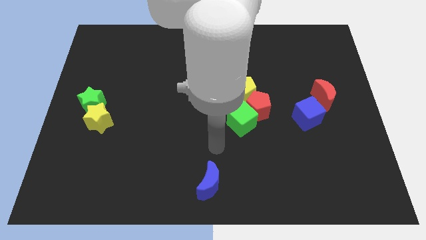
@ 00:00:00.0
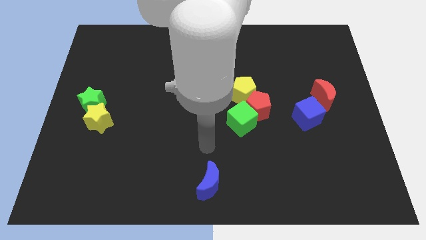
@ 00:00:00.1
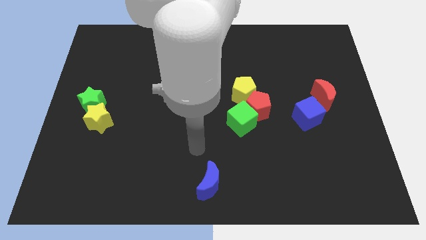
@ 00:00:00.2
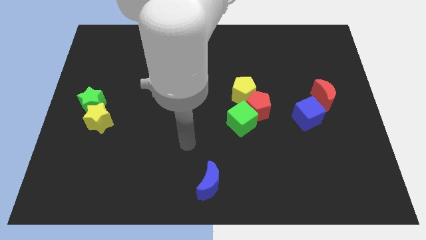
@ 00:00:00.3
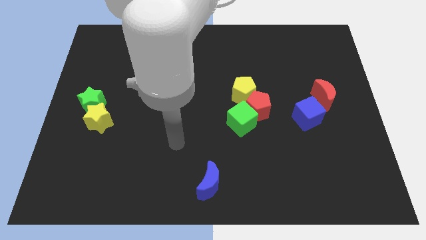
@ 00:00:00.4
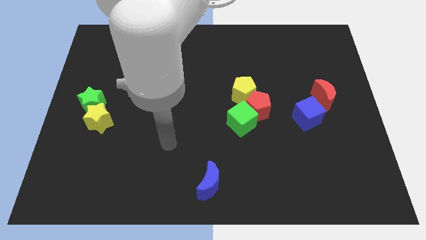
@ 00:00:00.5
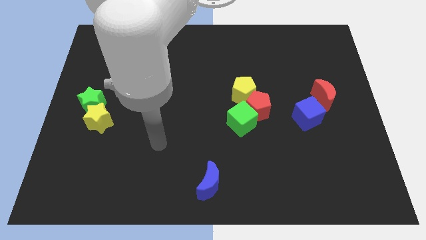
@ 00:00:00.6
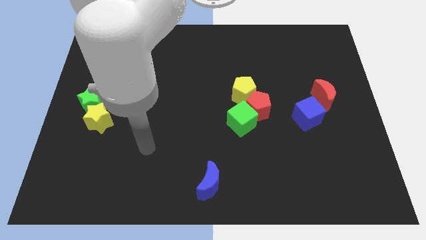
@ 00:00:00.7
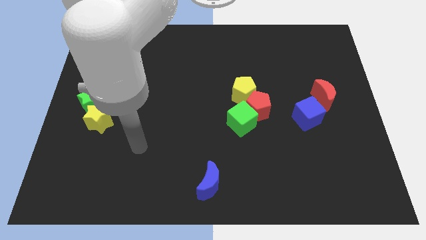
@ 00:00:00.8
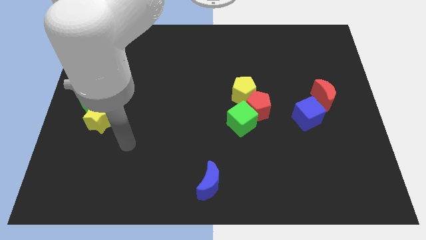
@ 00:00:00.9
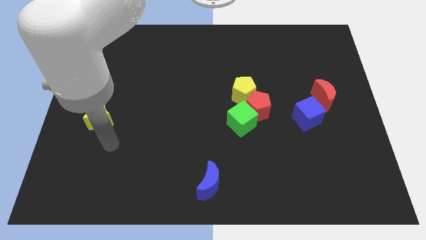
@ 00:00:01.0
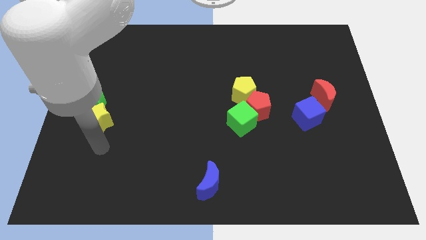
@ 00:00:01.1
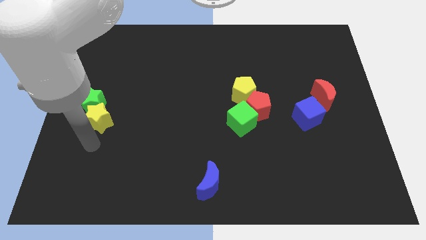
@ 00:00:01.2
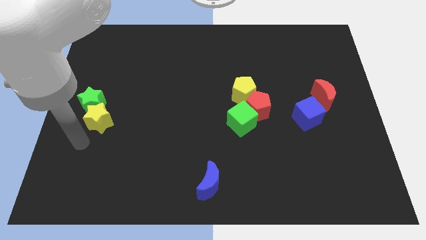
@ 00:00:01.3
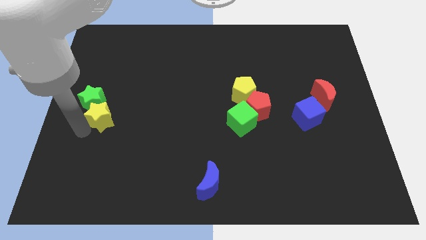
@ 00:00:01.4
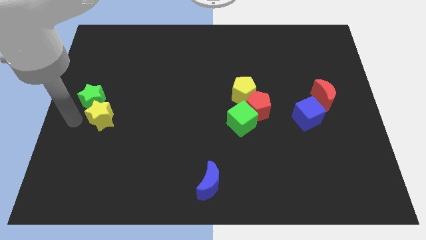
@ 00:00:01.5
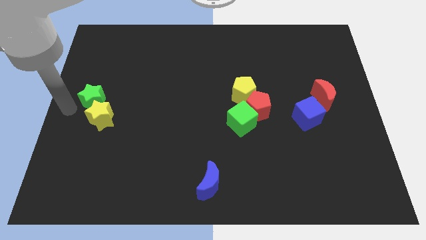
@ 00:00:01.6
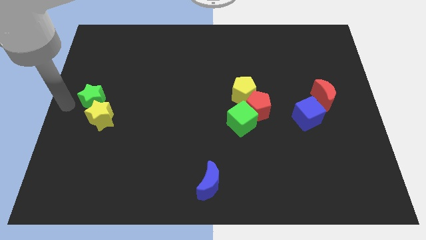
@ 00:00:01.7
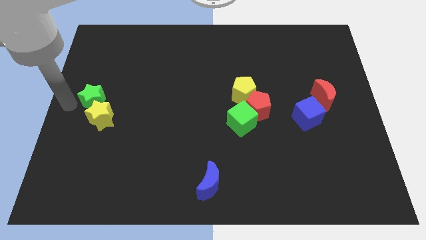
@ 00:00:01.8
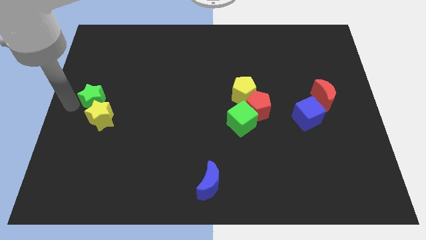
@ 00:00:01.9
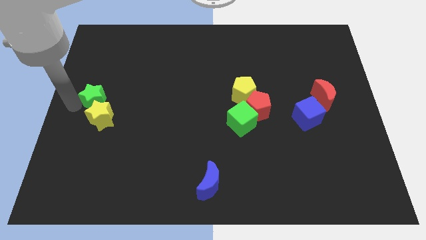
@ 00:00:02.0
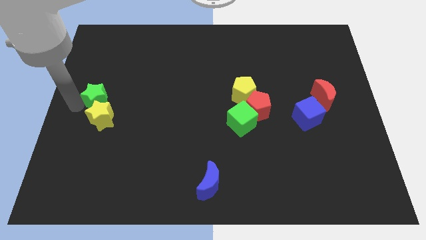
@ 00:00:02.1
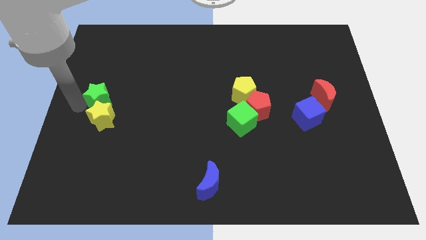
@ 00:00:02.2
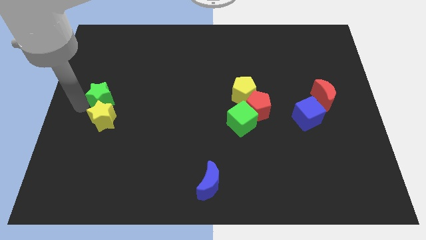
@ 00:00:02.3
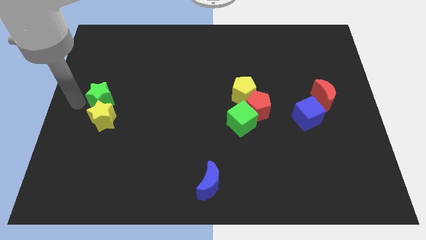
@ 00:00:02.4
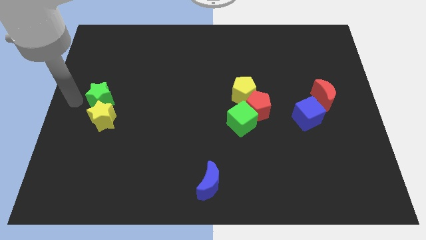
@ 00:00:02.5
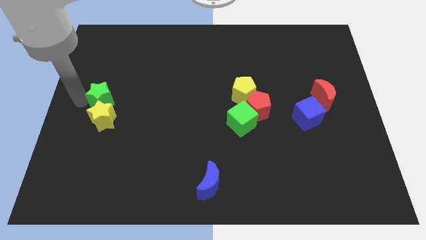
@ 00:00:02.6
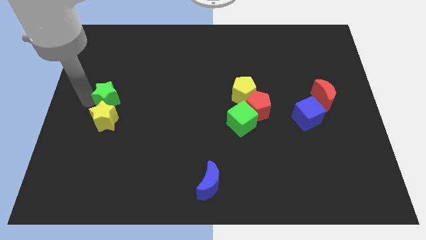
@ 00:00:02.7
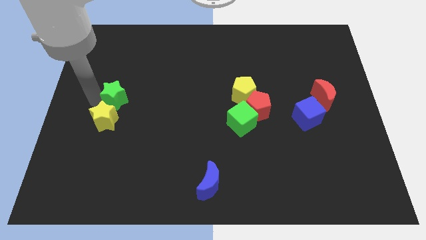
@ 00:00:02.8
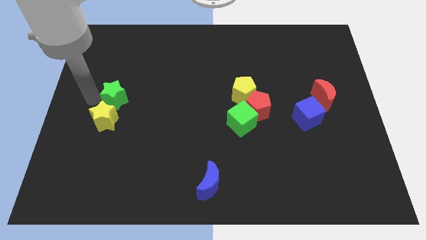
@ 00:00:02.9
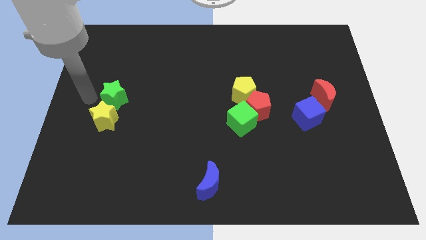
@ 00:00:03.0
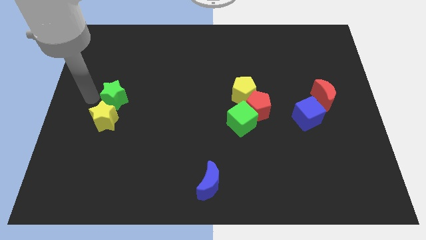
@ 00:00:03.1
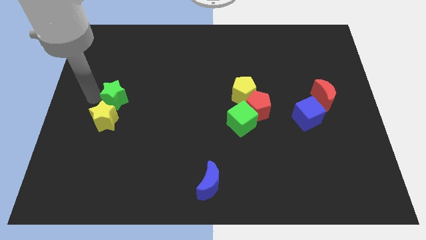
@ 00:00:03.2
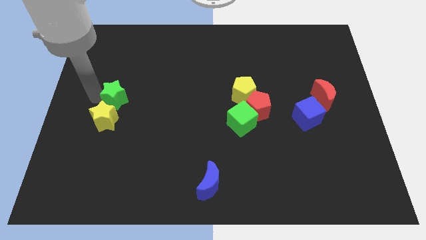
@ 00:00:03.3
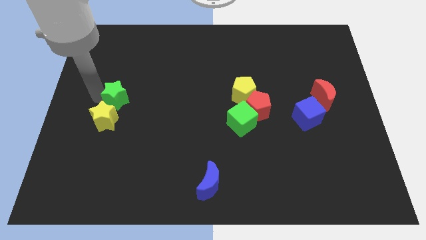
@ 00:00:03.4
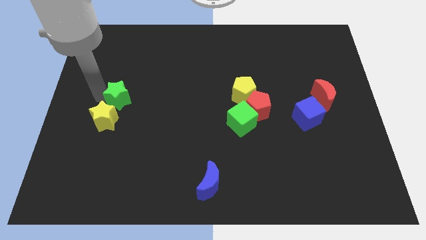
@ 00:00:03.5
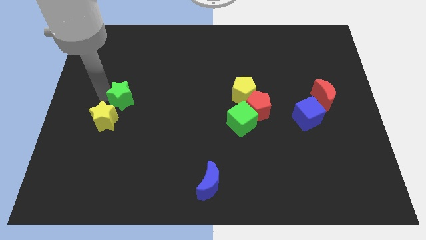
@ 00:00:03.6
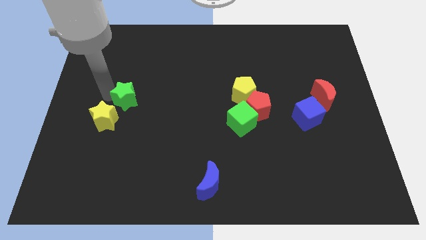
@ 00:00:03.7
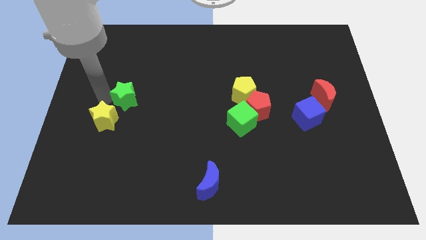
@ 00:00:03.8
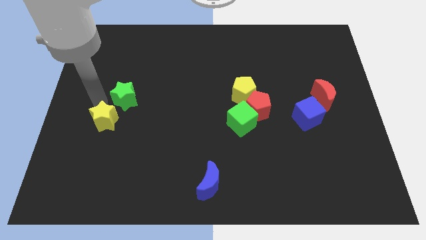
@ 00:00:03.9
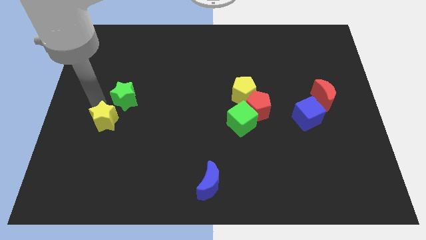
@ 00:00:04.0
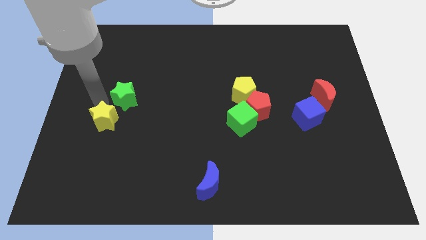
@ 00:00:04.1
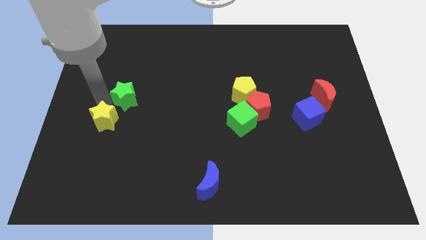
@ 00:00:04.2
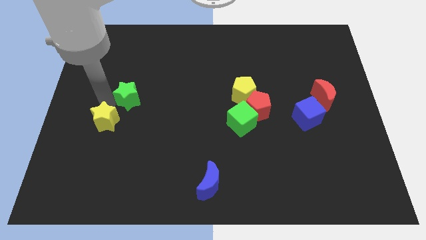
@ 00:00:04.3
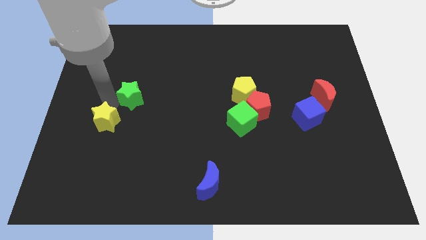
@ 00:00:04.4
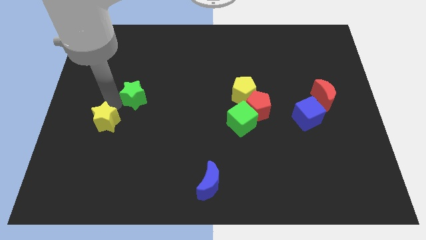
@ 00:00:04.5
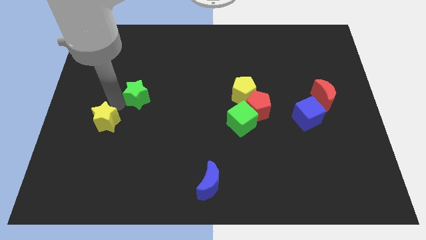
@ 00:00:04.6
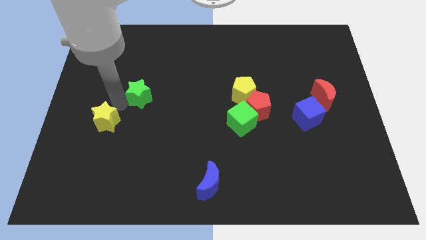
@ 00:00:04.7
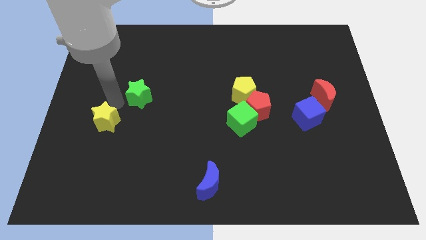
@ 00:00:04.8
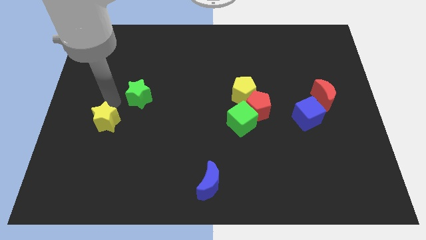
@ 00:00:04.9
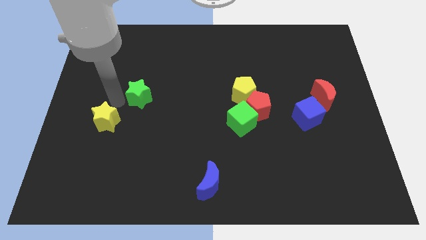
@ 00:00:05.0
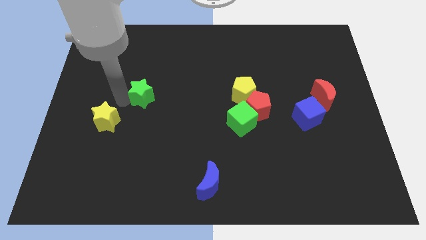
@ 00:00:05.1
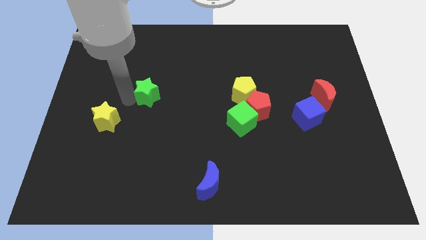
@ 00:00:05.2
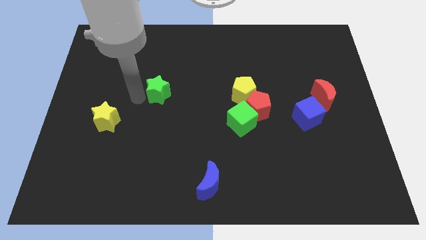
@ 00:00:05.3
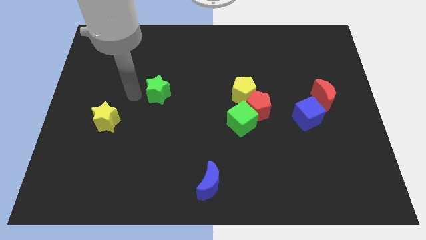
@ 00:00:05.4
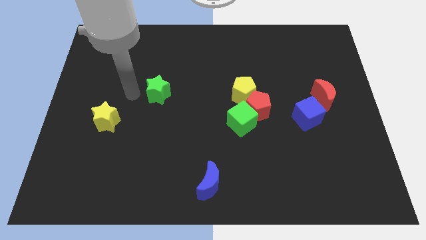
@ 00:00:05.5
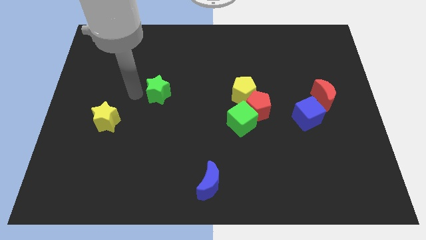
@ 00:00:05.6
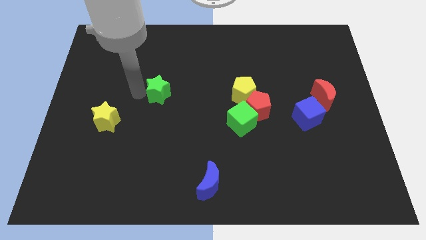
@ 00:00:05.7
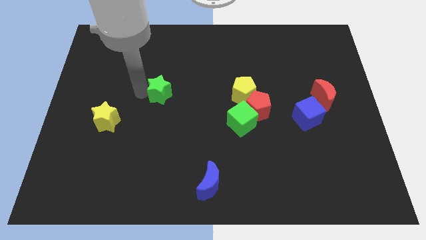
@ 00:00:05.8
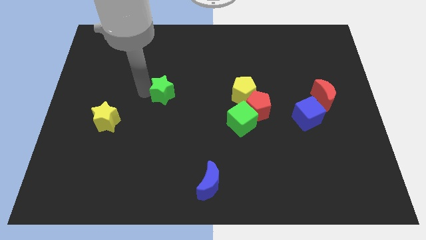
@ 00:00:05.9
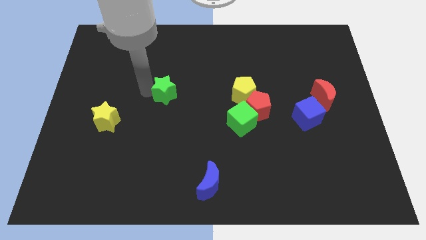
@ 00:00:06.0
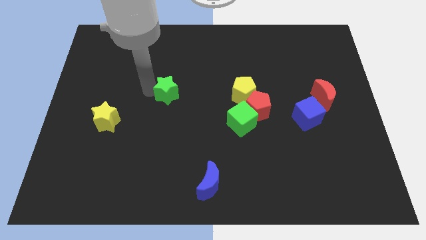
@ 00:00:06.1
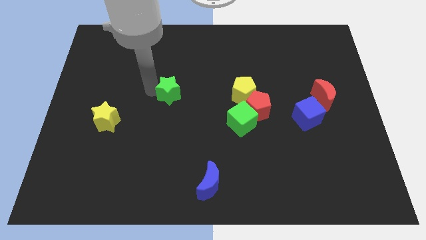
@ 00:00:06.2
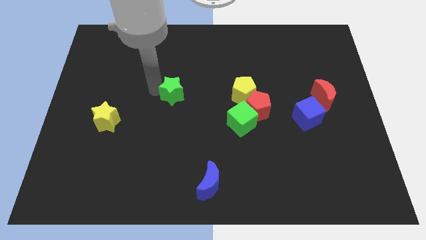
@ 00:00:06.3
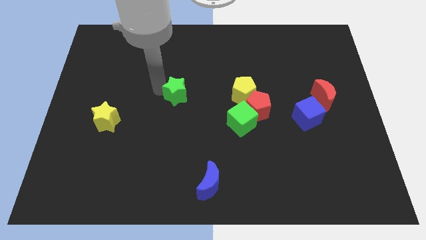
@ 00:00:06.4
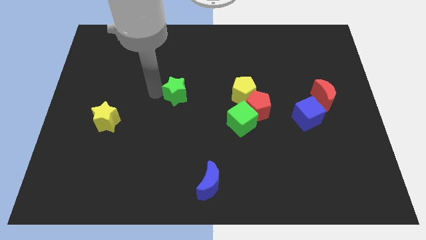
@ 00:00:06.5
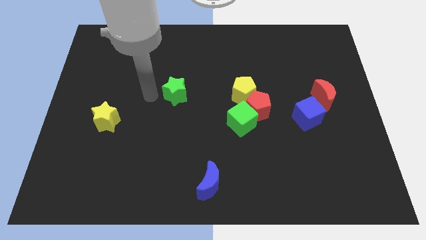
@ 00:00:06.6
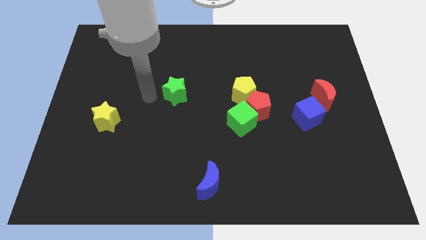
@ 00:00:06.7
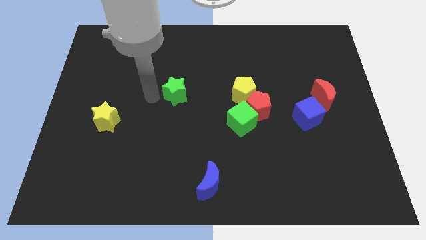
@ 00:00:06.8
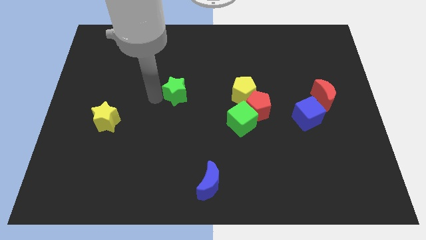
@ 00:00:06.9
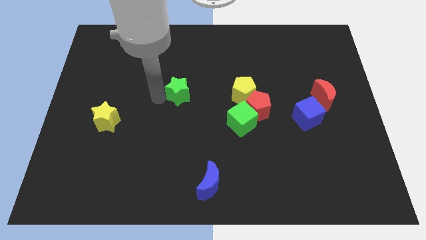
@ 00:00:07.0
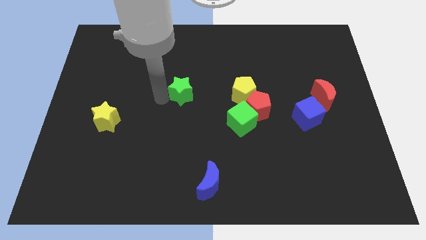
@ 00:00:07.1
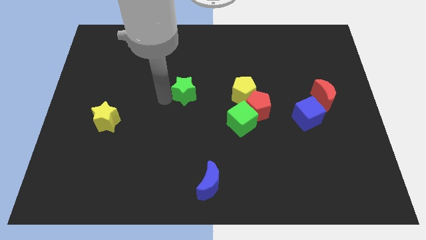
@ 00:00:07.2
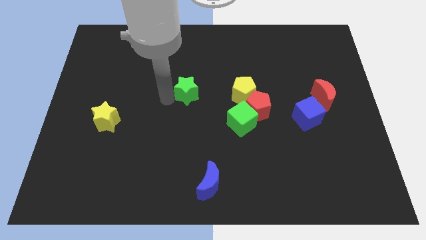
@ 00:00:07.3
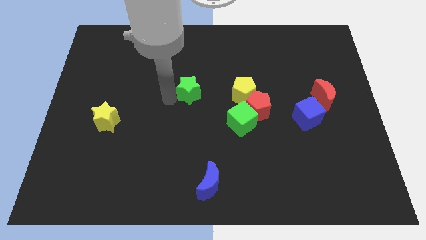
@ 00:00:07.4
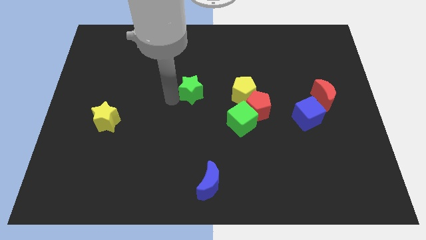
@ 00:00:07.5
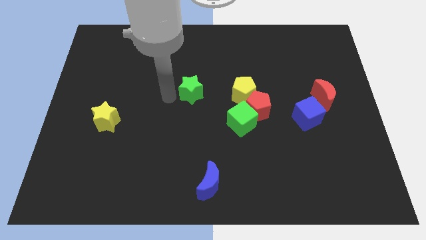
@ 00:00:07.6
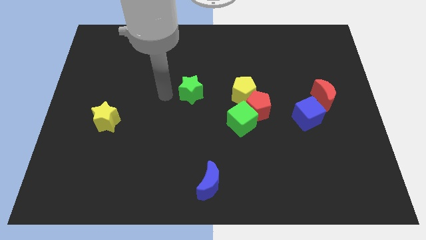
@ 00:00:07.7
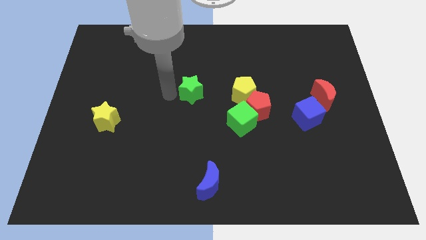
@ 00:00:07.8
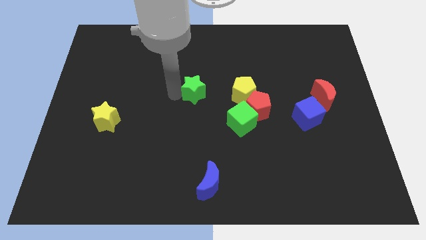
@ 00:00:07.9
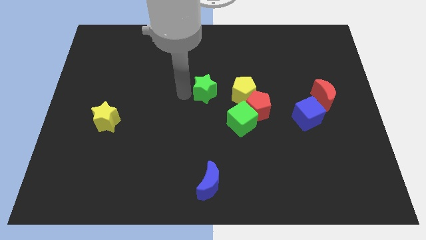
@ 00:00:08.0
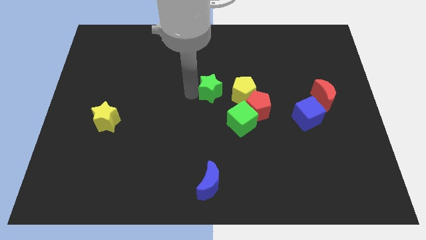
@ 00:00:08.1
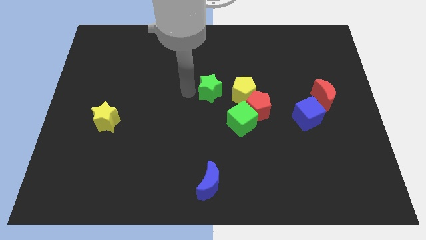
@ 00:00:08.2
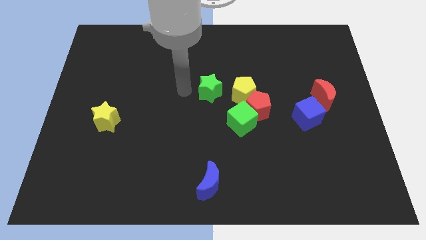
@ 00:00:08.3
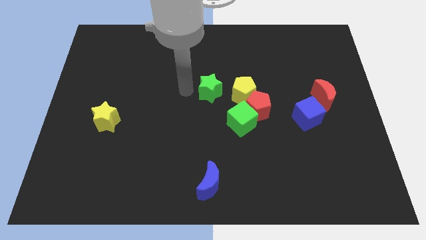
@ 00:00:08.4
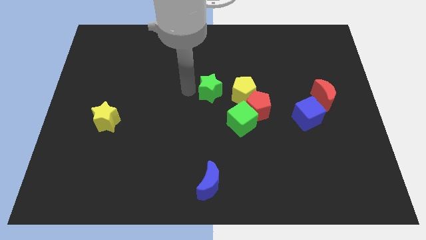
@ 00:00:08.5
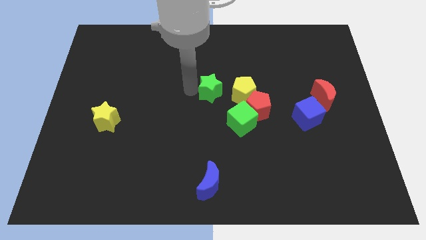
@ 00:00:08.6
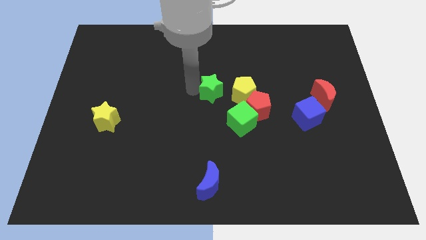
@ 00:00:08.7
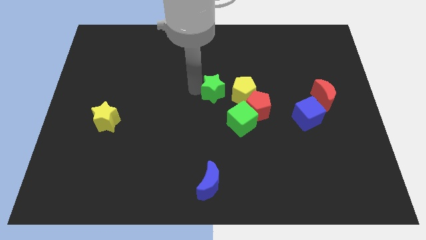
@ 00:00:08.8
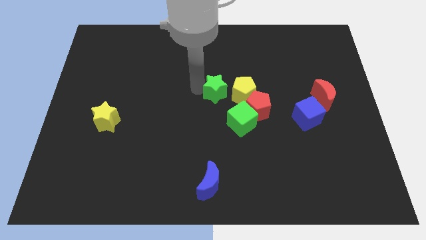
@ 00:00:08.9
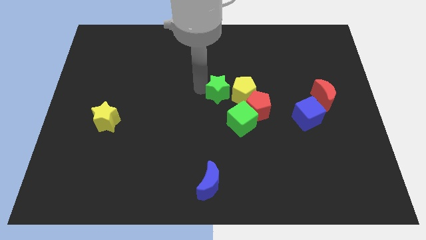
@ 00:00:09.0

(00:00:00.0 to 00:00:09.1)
move the green star towards the yellow pentagon
